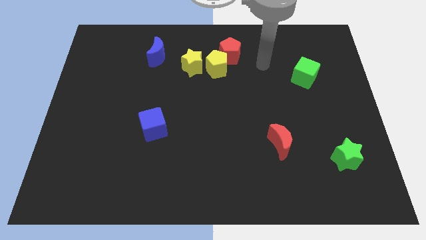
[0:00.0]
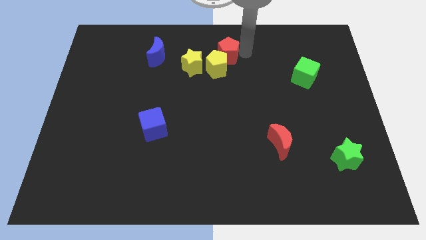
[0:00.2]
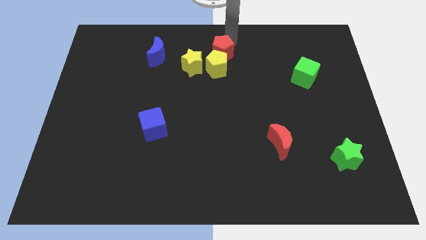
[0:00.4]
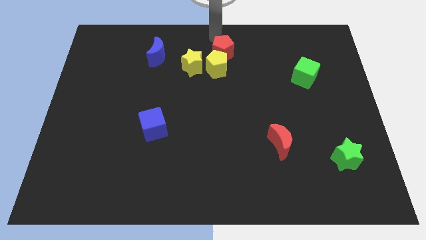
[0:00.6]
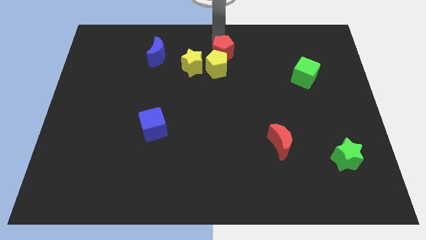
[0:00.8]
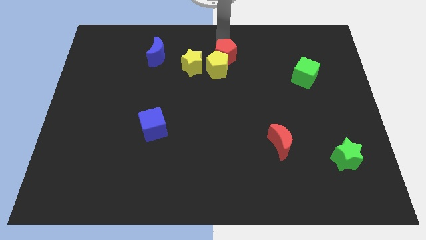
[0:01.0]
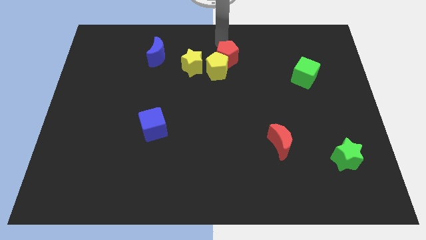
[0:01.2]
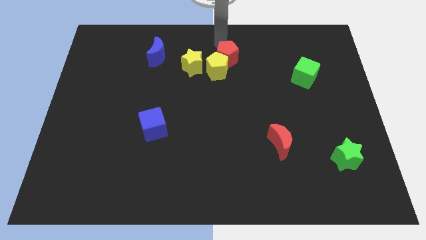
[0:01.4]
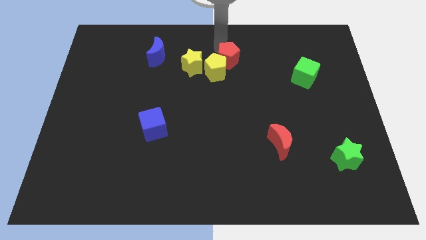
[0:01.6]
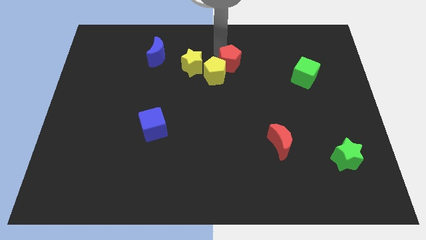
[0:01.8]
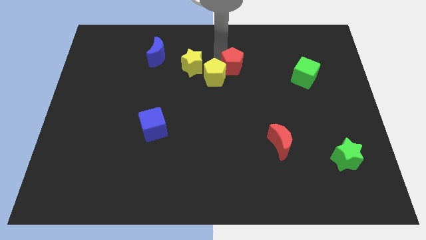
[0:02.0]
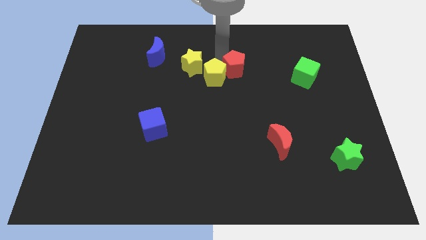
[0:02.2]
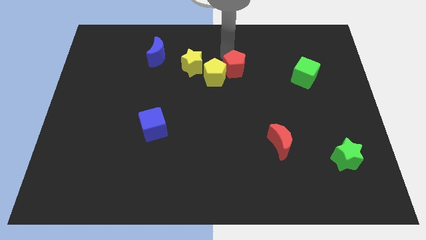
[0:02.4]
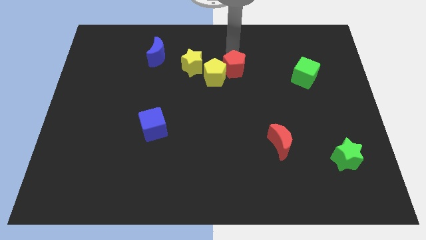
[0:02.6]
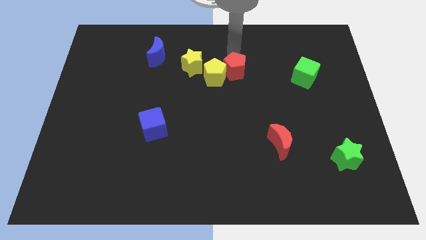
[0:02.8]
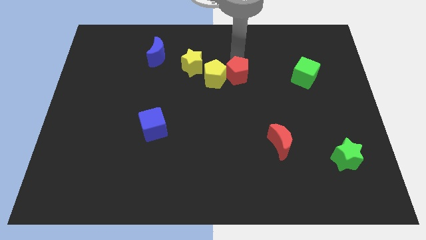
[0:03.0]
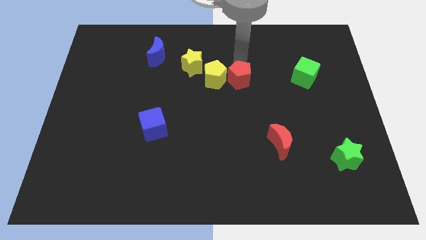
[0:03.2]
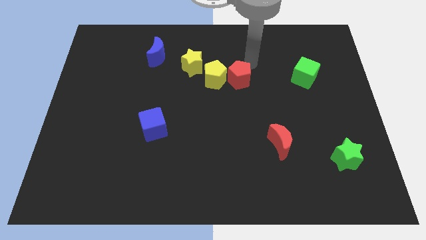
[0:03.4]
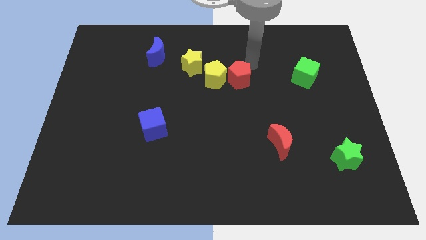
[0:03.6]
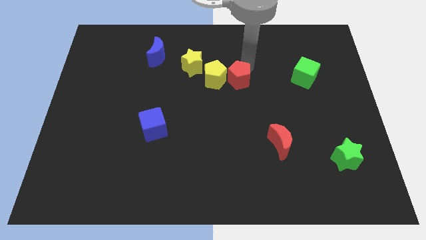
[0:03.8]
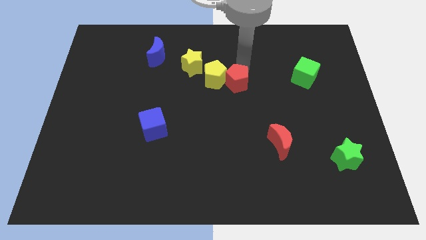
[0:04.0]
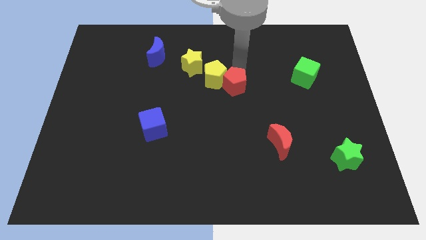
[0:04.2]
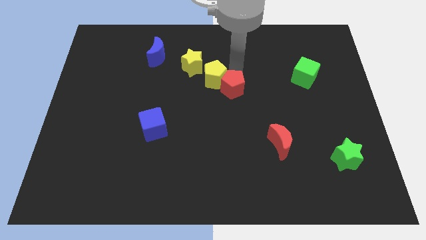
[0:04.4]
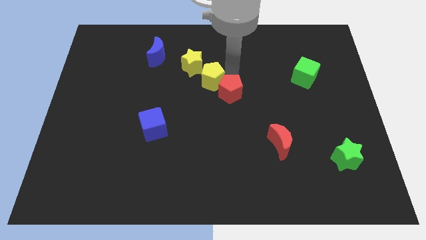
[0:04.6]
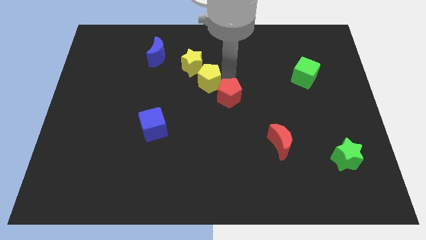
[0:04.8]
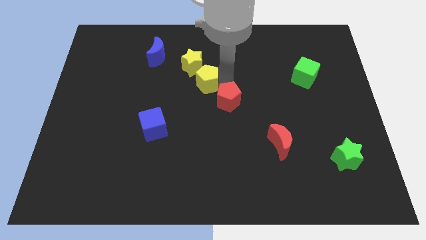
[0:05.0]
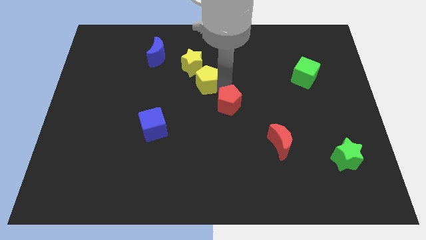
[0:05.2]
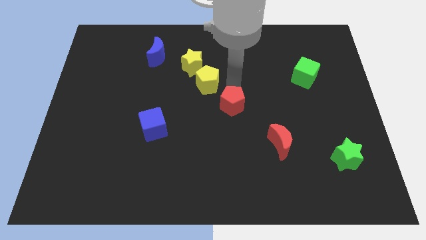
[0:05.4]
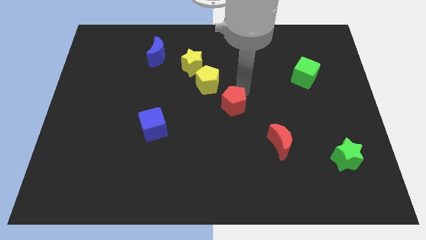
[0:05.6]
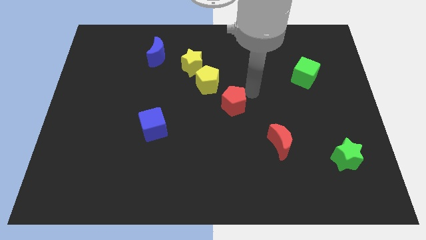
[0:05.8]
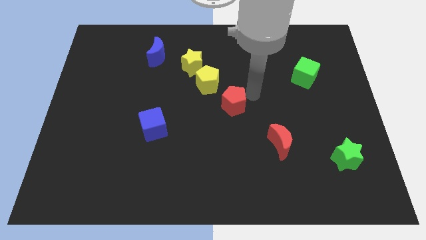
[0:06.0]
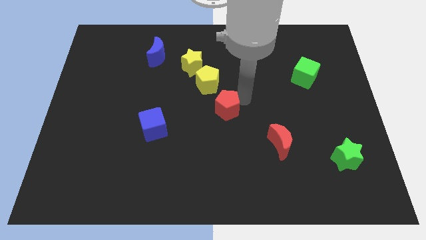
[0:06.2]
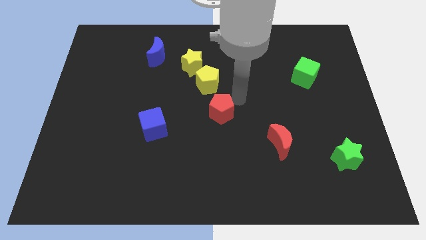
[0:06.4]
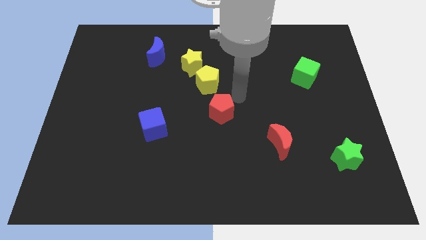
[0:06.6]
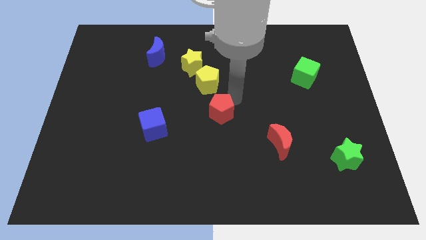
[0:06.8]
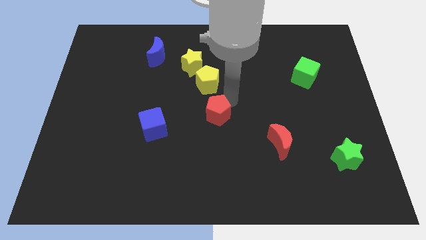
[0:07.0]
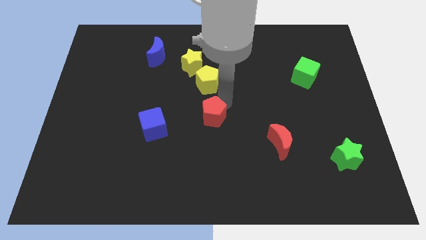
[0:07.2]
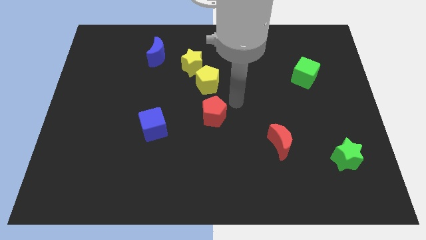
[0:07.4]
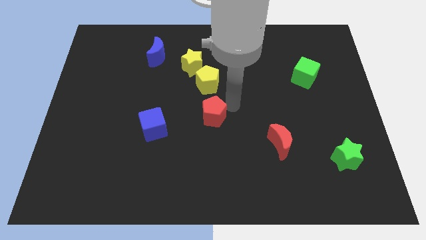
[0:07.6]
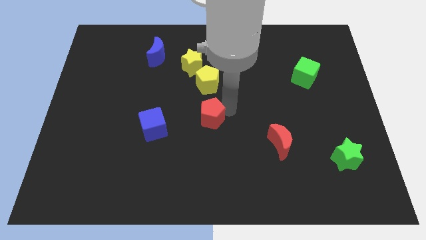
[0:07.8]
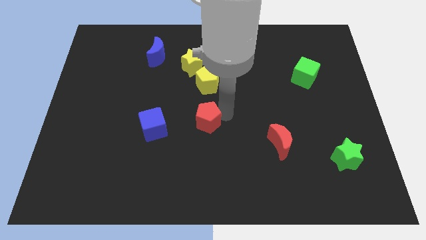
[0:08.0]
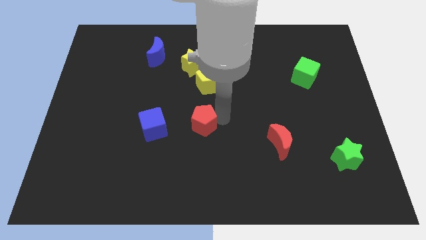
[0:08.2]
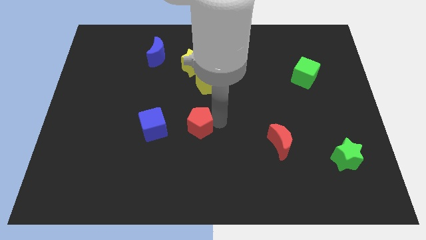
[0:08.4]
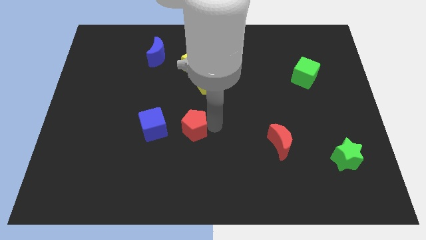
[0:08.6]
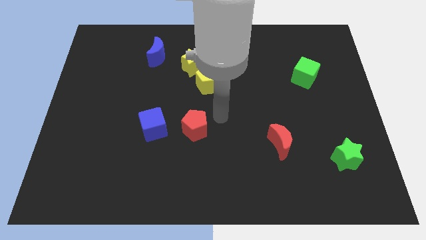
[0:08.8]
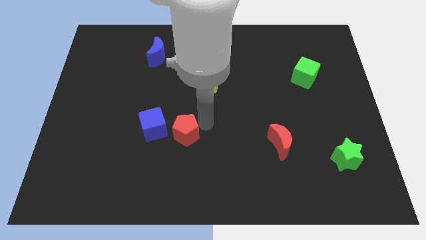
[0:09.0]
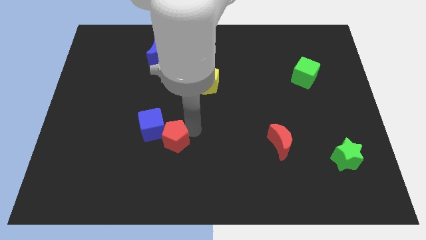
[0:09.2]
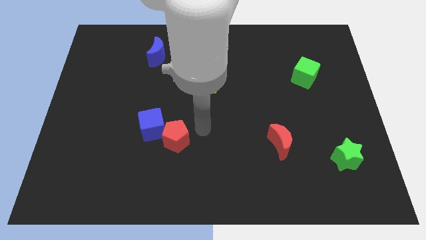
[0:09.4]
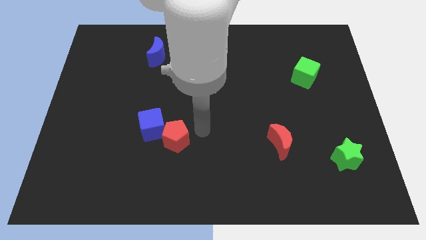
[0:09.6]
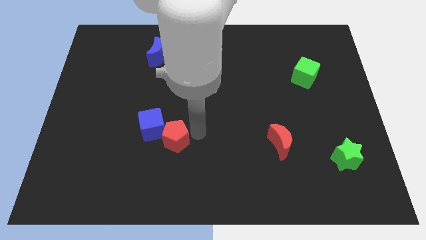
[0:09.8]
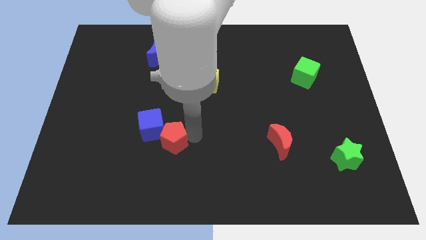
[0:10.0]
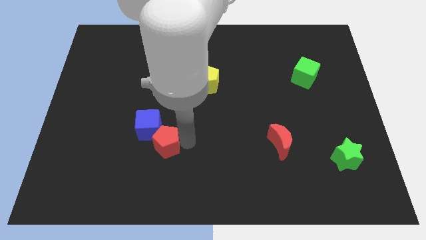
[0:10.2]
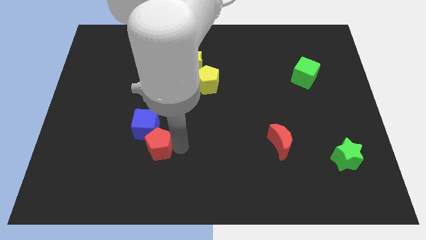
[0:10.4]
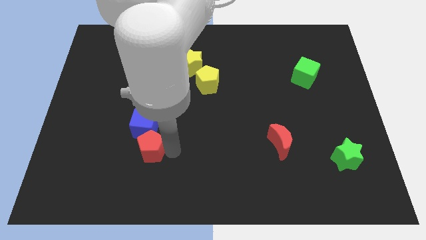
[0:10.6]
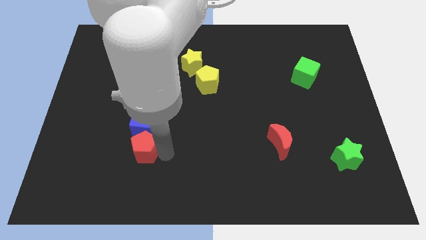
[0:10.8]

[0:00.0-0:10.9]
put the red pentagon diagonally down and to the left of the blue cube
